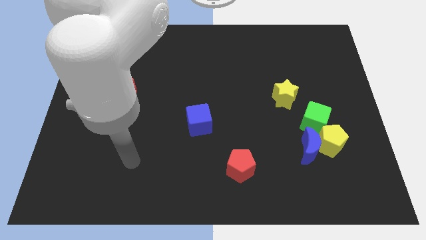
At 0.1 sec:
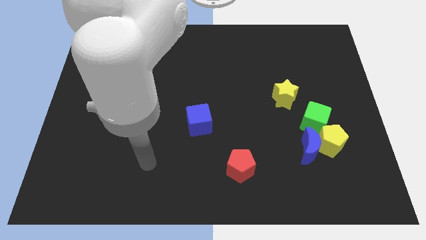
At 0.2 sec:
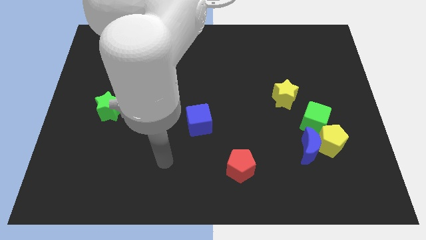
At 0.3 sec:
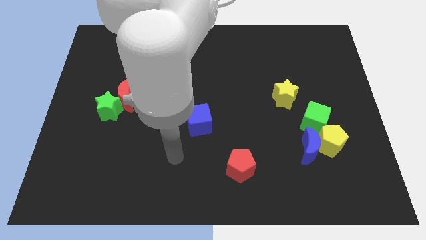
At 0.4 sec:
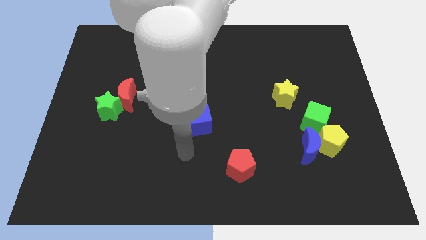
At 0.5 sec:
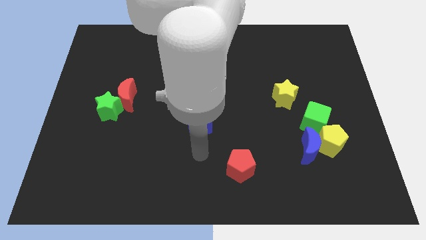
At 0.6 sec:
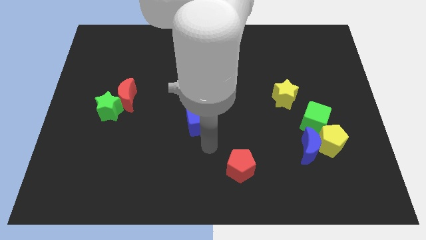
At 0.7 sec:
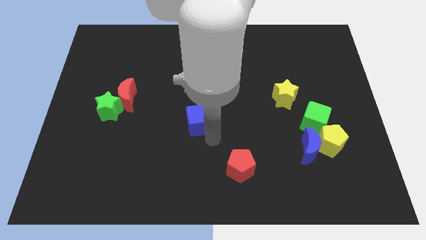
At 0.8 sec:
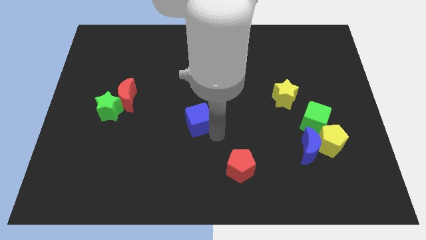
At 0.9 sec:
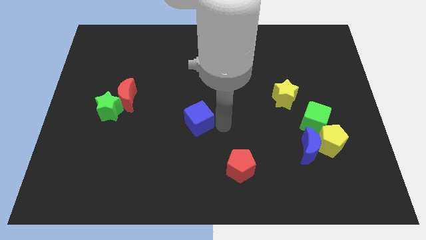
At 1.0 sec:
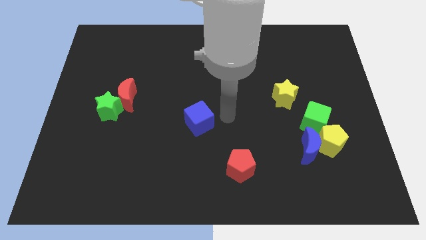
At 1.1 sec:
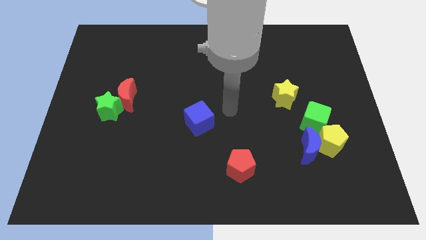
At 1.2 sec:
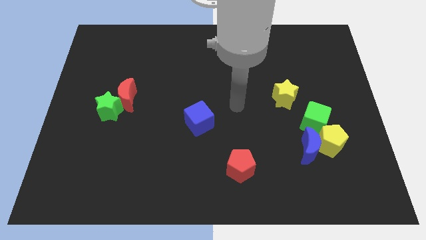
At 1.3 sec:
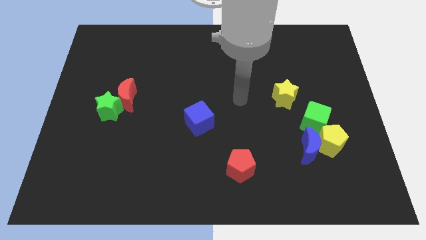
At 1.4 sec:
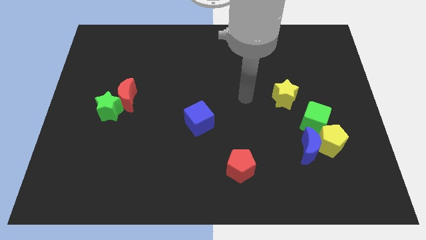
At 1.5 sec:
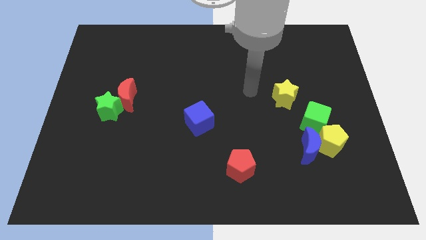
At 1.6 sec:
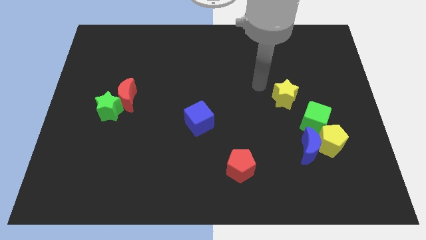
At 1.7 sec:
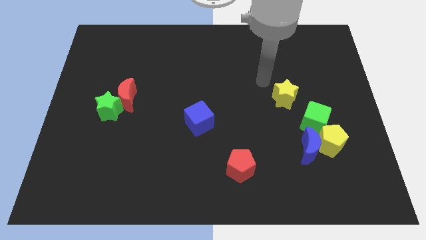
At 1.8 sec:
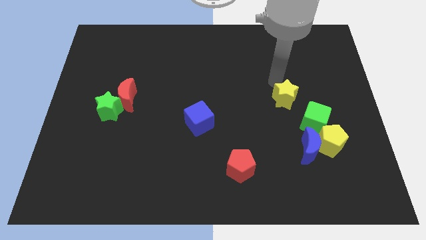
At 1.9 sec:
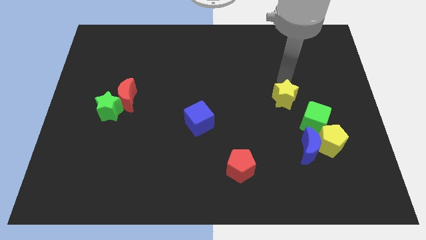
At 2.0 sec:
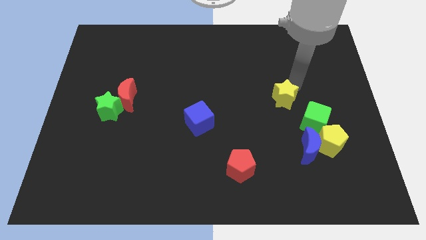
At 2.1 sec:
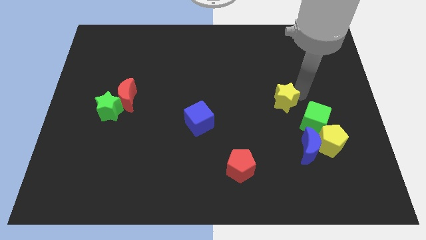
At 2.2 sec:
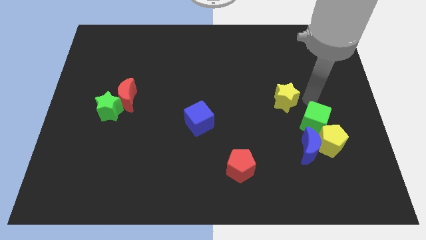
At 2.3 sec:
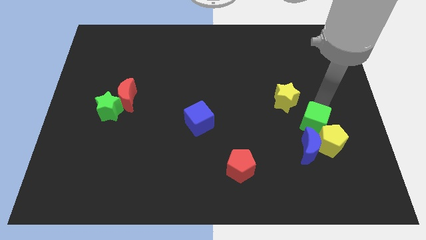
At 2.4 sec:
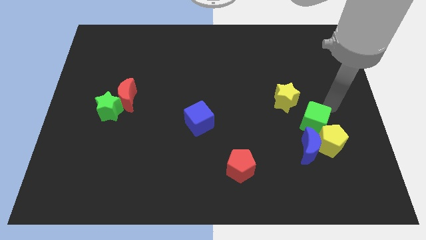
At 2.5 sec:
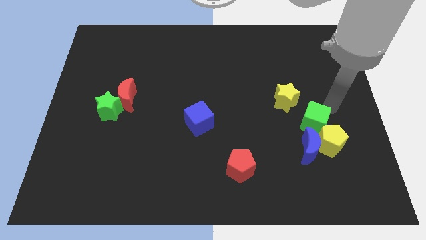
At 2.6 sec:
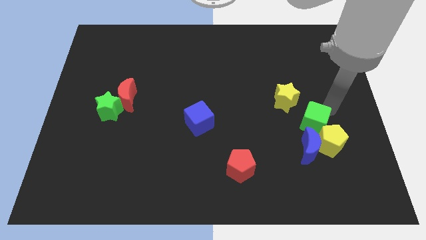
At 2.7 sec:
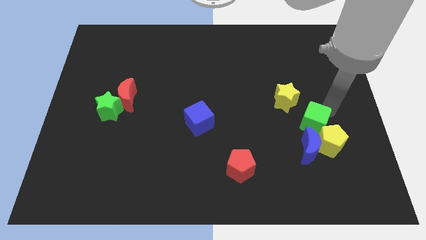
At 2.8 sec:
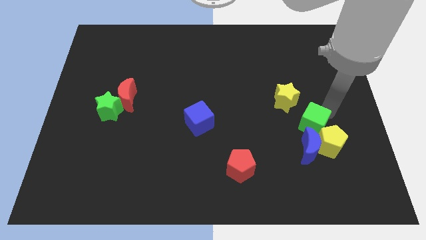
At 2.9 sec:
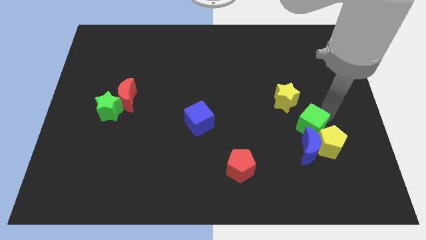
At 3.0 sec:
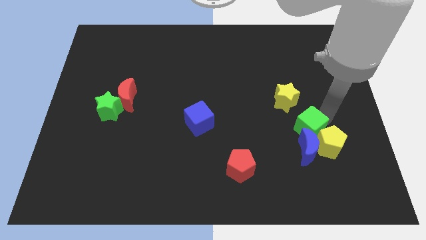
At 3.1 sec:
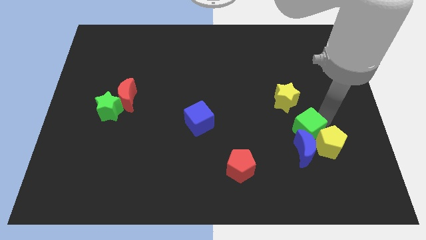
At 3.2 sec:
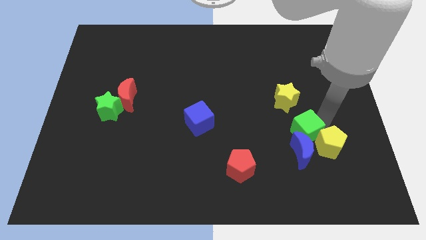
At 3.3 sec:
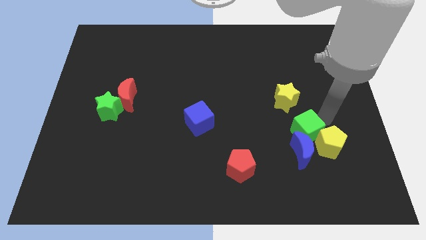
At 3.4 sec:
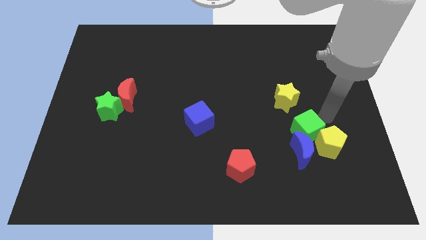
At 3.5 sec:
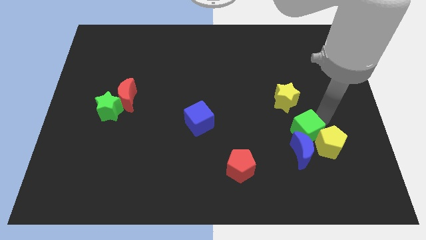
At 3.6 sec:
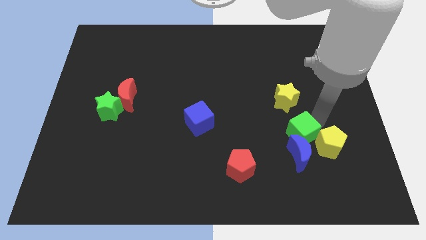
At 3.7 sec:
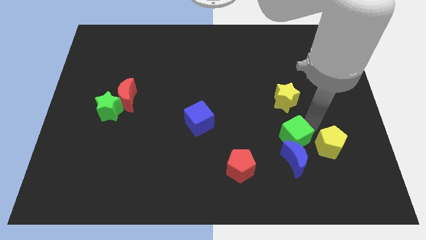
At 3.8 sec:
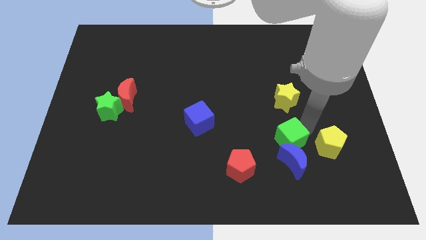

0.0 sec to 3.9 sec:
move the green cube a bit diagonally down and left

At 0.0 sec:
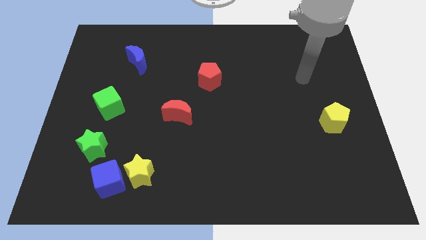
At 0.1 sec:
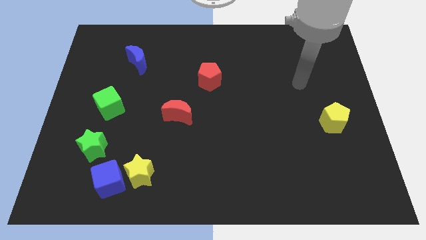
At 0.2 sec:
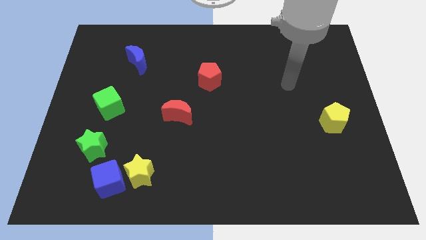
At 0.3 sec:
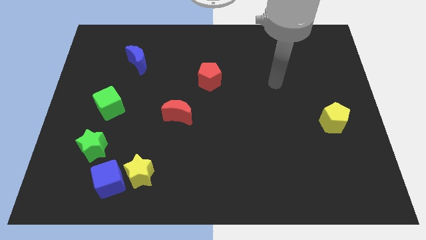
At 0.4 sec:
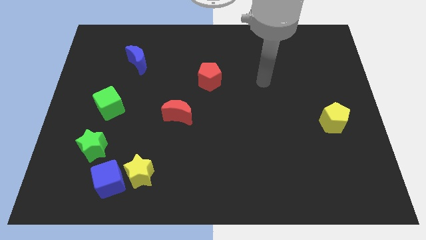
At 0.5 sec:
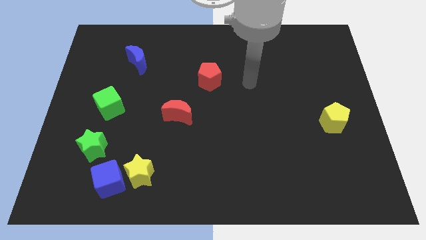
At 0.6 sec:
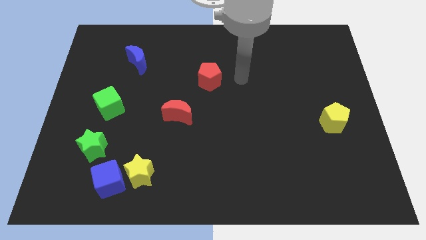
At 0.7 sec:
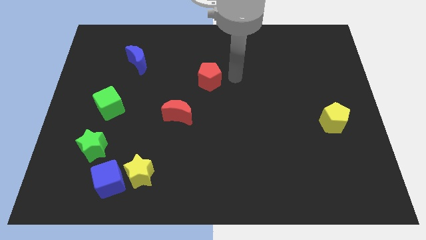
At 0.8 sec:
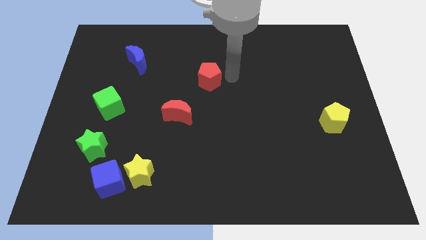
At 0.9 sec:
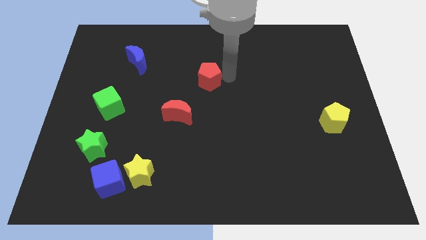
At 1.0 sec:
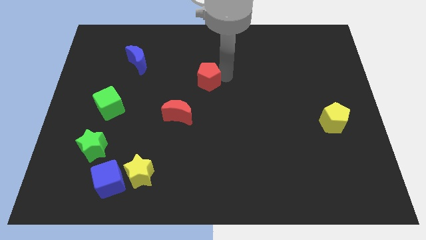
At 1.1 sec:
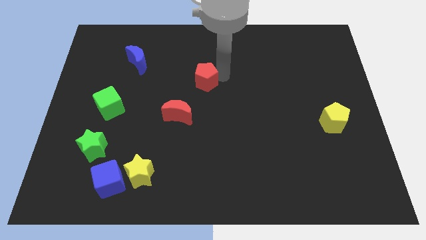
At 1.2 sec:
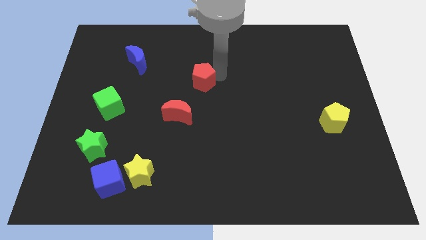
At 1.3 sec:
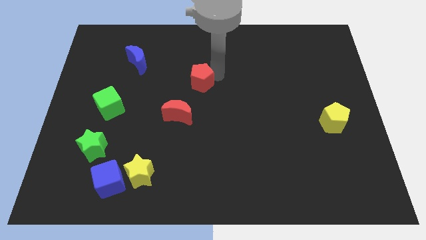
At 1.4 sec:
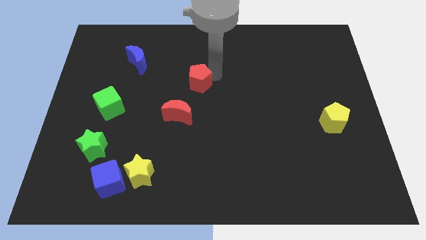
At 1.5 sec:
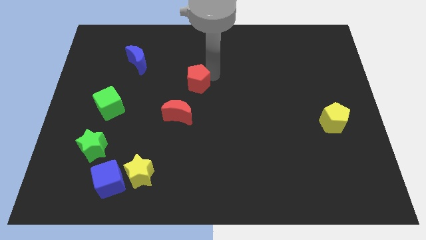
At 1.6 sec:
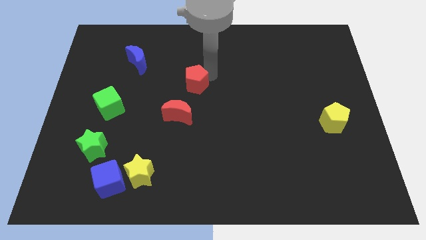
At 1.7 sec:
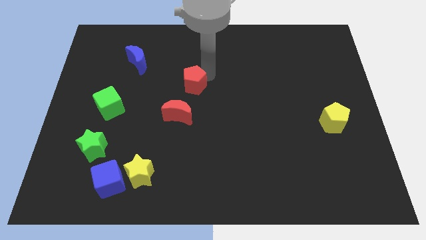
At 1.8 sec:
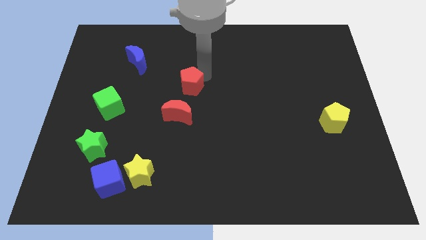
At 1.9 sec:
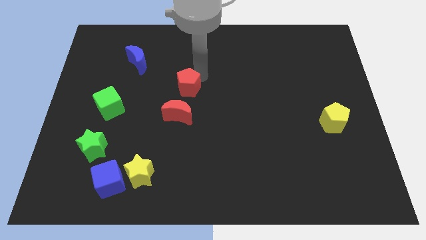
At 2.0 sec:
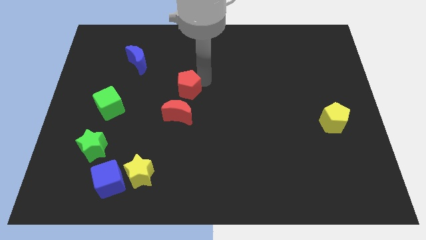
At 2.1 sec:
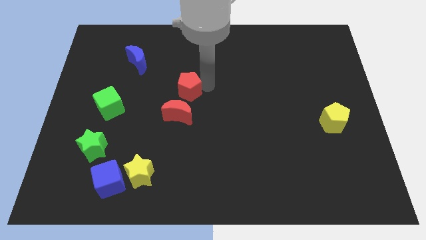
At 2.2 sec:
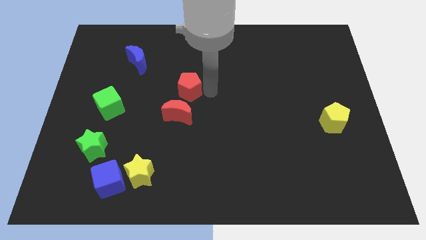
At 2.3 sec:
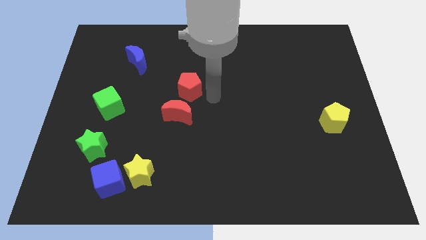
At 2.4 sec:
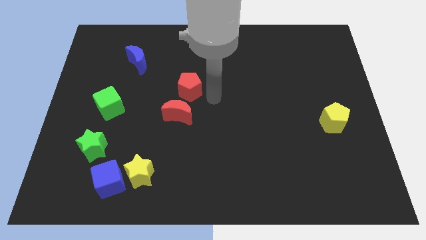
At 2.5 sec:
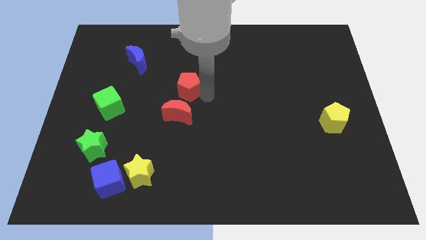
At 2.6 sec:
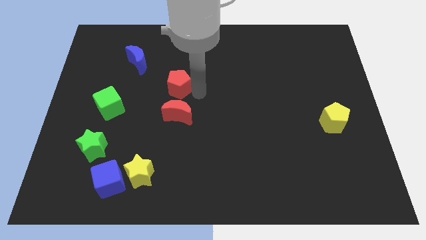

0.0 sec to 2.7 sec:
slide the red pentagon a little bit left

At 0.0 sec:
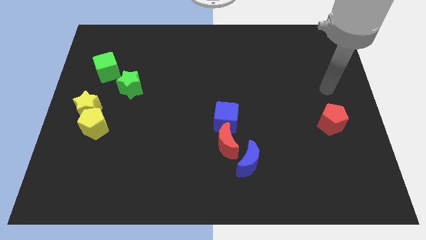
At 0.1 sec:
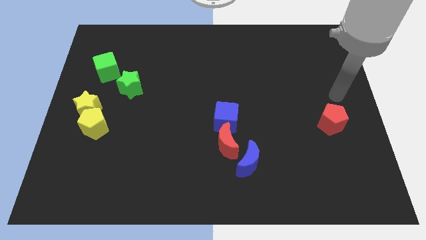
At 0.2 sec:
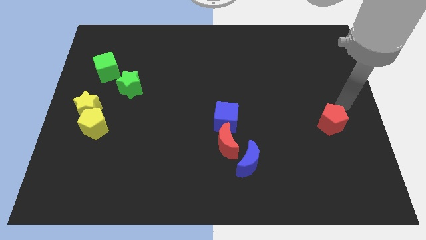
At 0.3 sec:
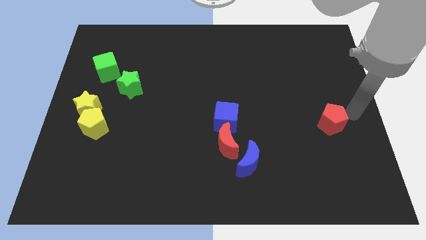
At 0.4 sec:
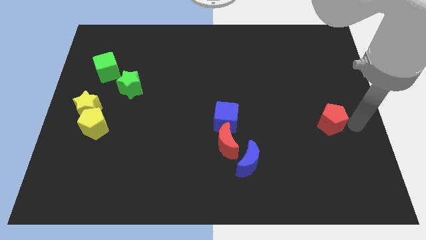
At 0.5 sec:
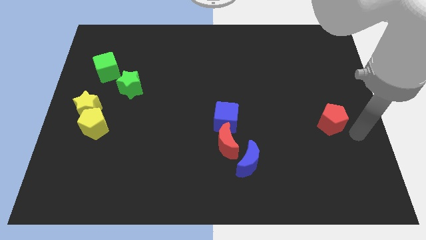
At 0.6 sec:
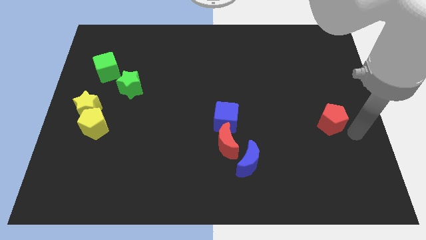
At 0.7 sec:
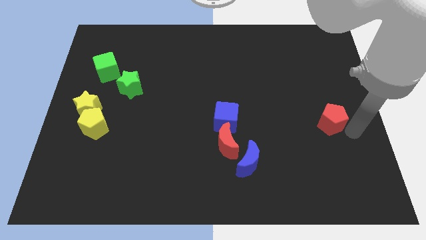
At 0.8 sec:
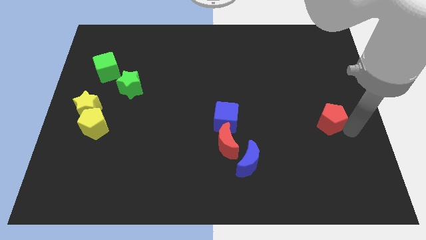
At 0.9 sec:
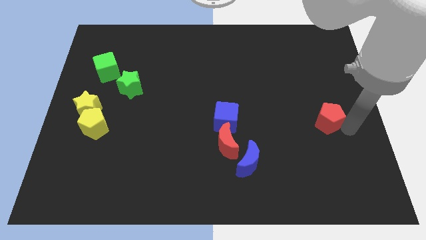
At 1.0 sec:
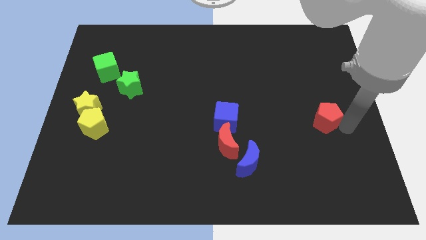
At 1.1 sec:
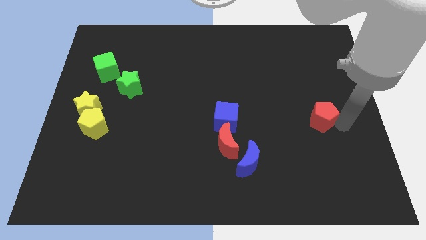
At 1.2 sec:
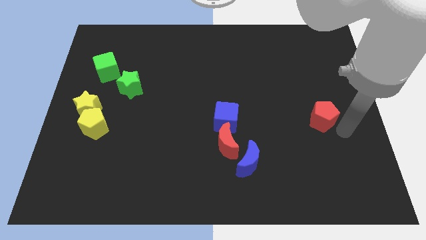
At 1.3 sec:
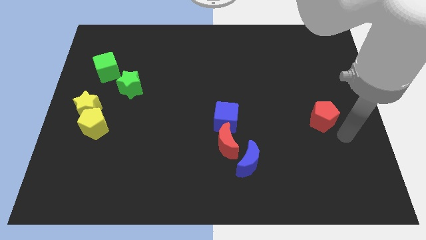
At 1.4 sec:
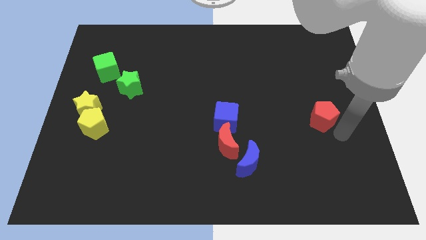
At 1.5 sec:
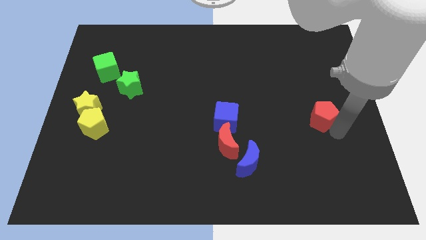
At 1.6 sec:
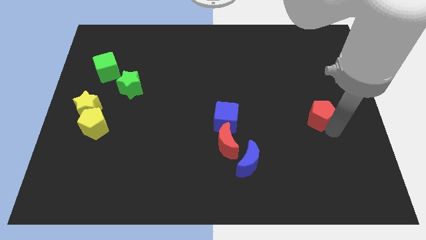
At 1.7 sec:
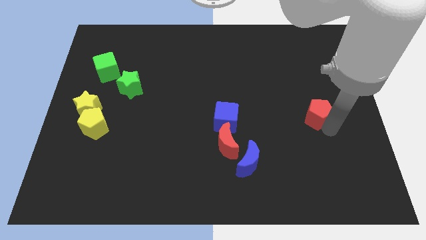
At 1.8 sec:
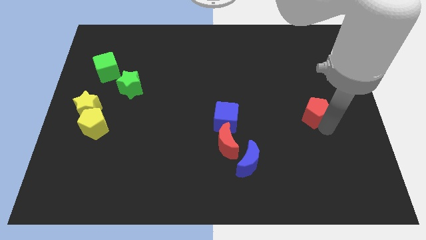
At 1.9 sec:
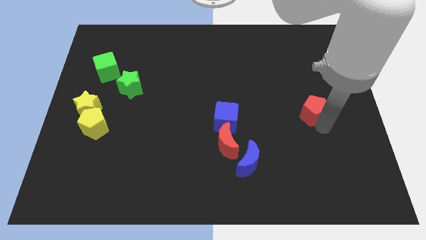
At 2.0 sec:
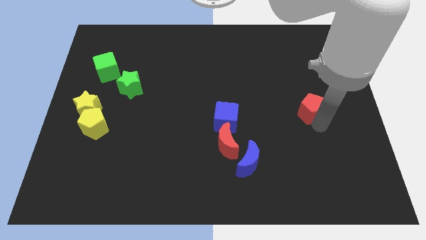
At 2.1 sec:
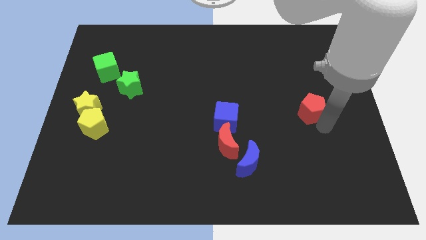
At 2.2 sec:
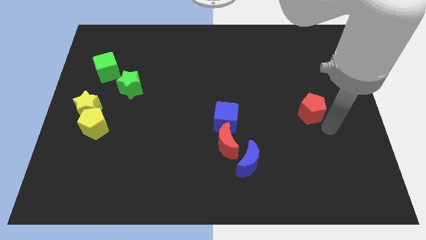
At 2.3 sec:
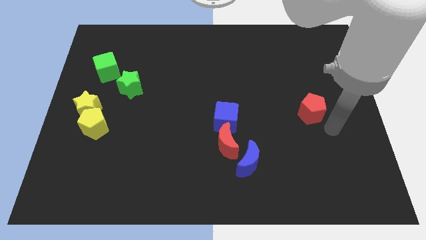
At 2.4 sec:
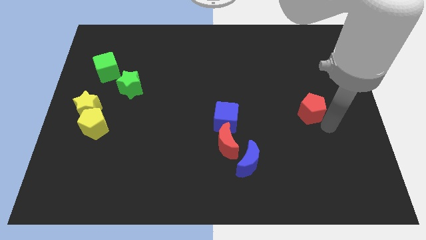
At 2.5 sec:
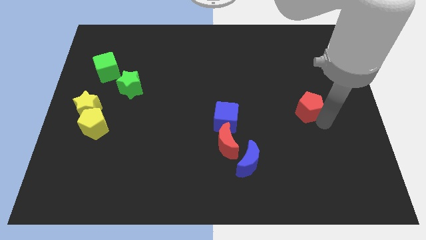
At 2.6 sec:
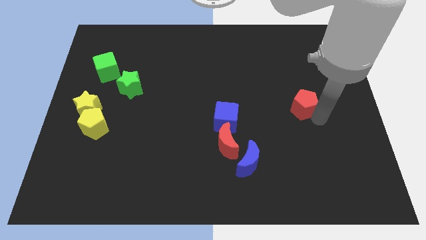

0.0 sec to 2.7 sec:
move the red pentagon somewhat upwards and left diagonally
